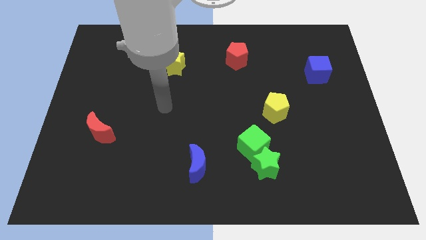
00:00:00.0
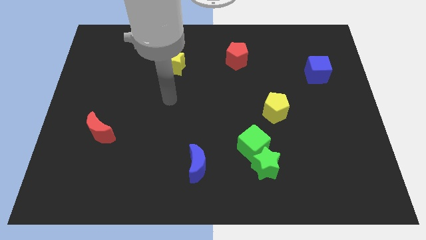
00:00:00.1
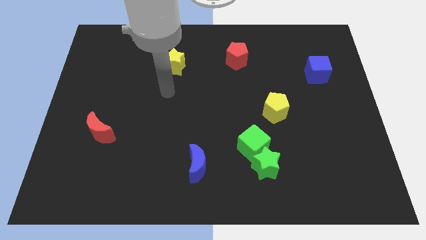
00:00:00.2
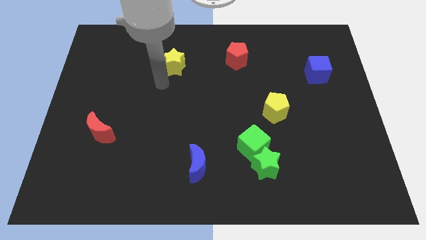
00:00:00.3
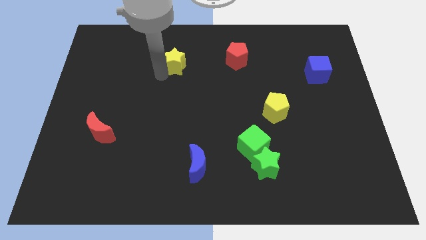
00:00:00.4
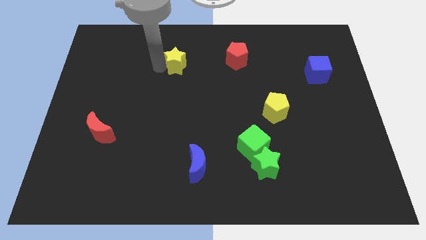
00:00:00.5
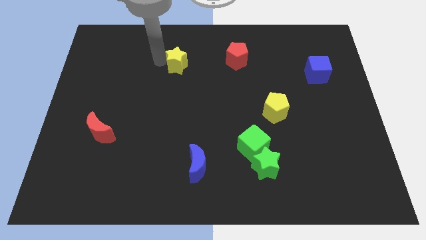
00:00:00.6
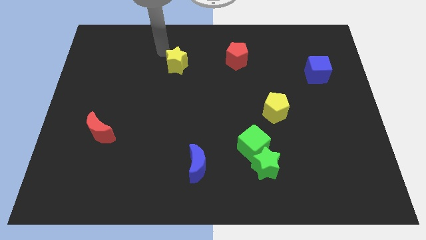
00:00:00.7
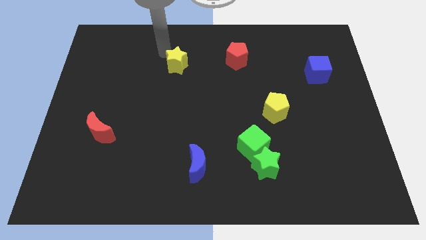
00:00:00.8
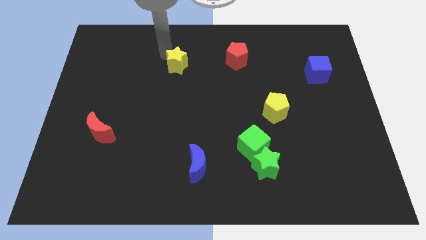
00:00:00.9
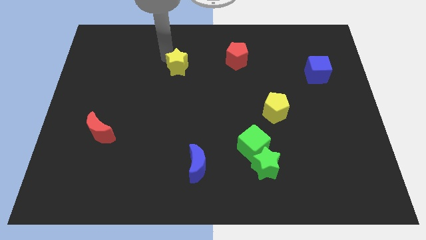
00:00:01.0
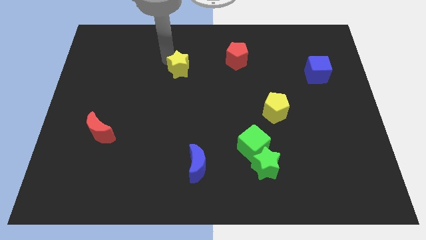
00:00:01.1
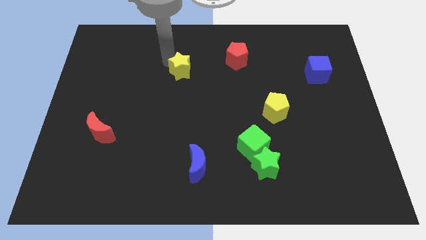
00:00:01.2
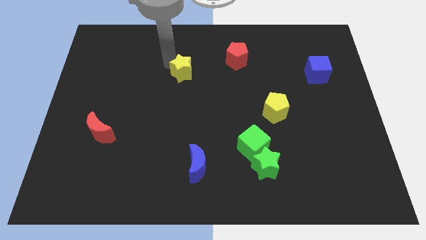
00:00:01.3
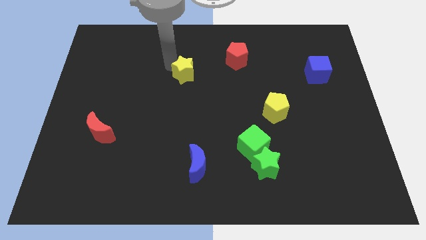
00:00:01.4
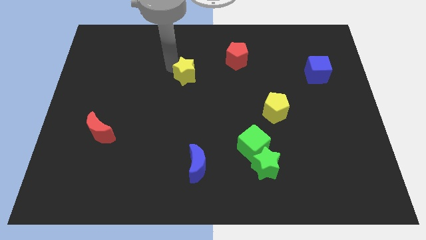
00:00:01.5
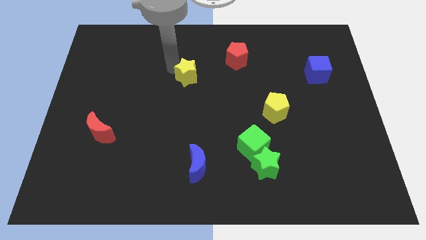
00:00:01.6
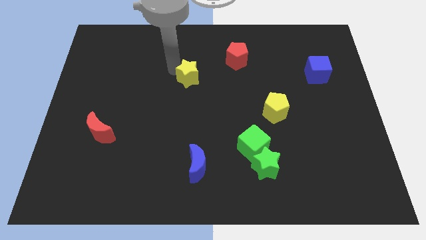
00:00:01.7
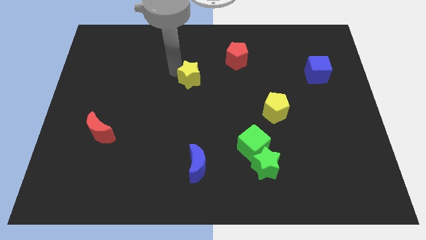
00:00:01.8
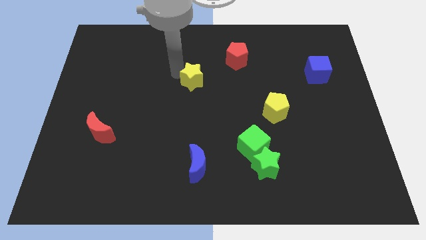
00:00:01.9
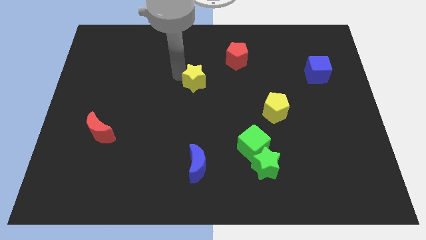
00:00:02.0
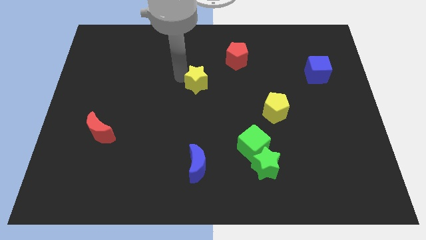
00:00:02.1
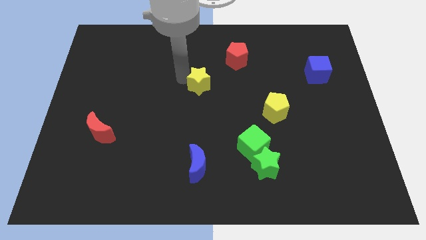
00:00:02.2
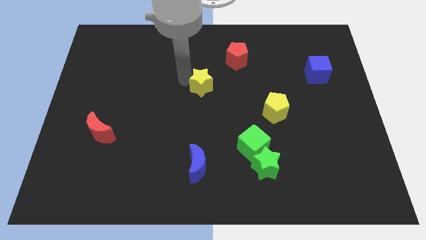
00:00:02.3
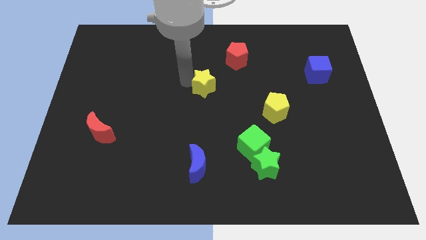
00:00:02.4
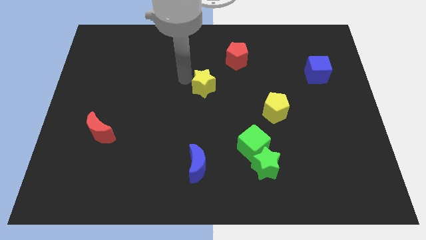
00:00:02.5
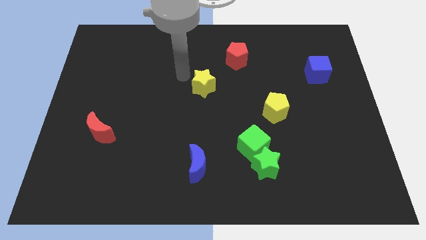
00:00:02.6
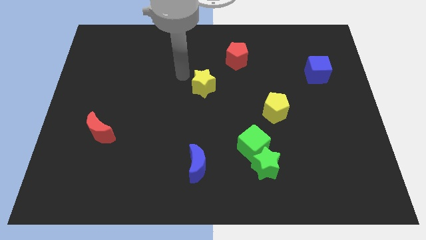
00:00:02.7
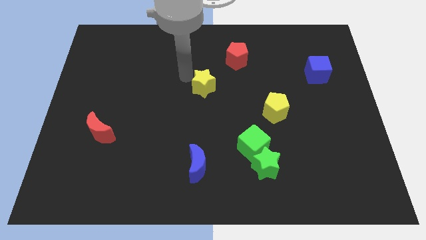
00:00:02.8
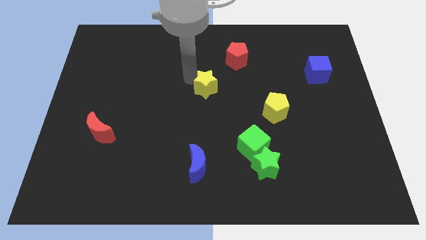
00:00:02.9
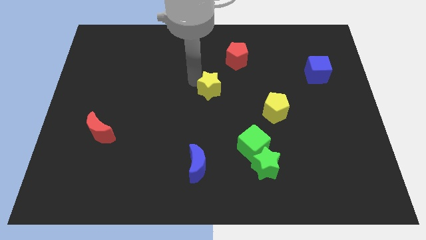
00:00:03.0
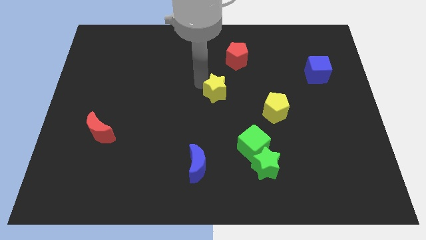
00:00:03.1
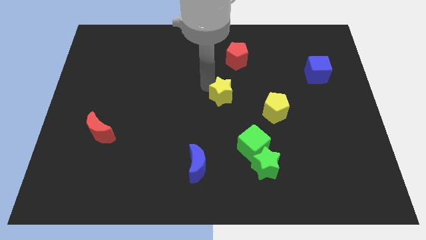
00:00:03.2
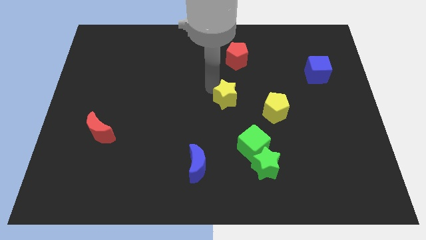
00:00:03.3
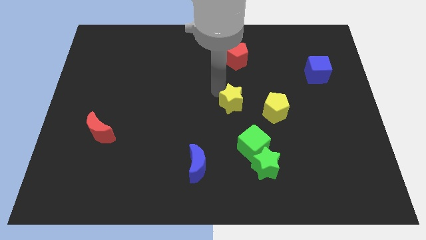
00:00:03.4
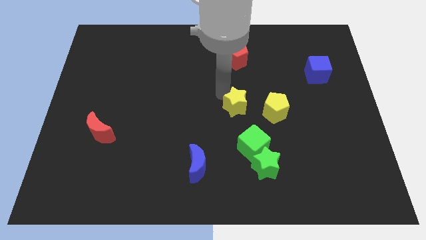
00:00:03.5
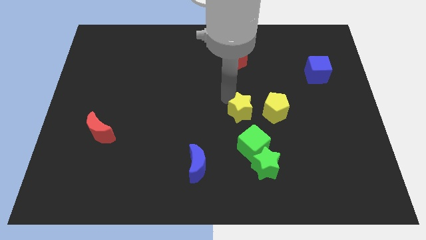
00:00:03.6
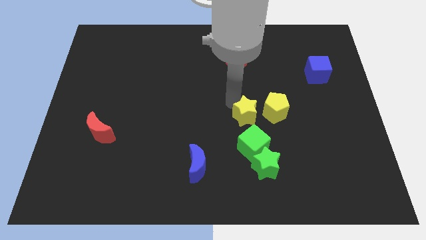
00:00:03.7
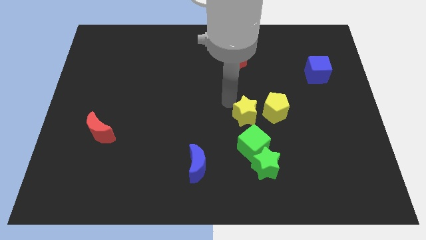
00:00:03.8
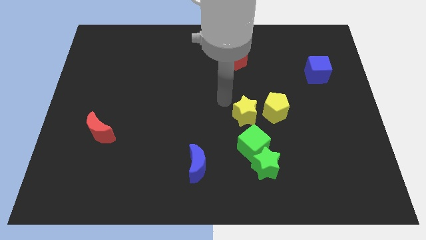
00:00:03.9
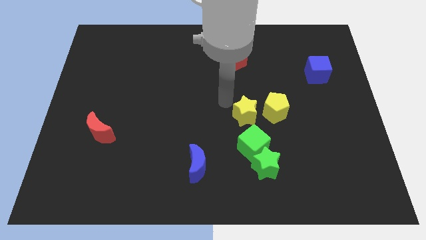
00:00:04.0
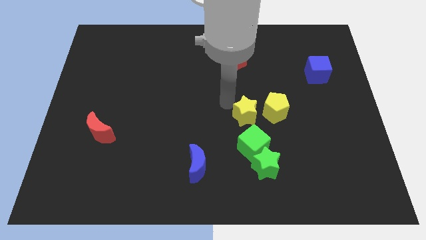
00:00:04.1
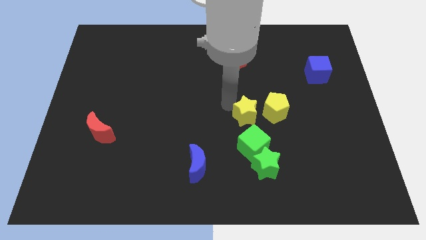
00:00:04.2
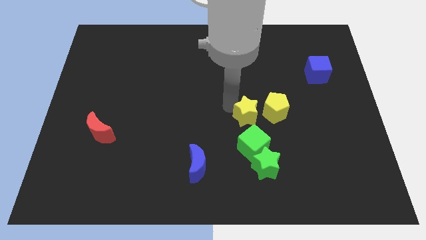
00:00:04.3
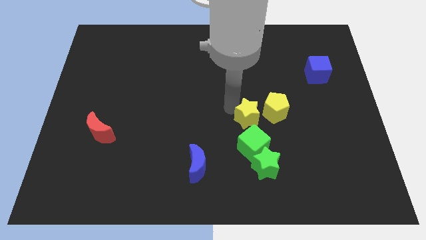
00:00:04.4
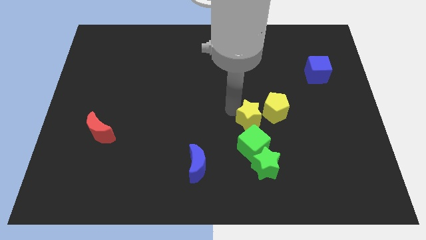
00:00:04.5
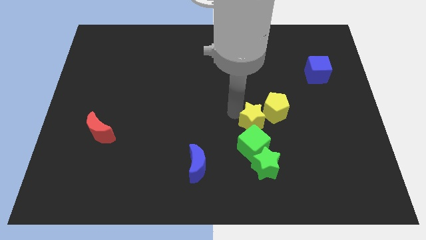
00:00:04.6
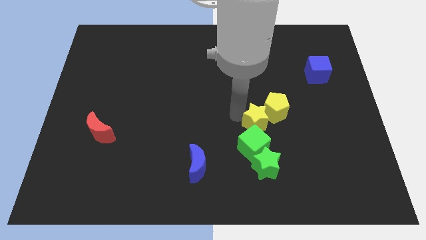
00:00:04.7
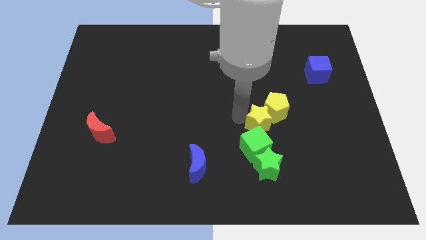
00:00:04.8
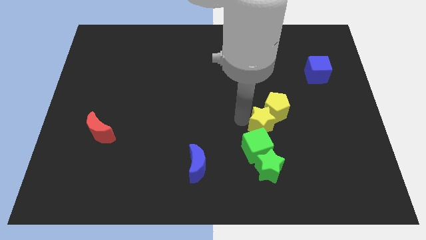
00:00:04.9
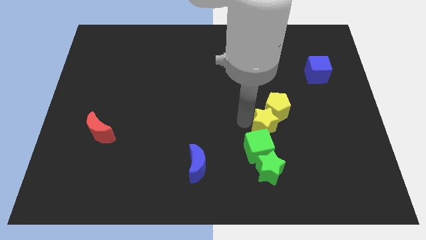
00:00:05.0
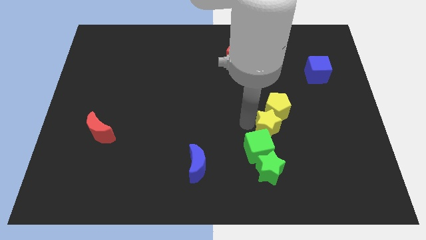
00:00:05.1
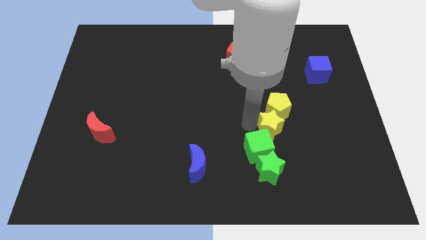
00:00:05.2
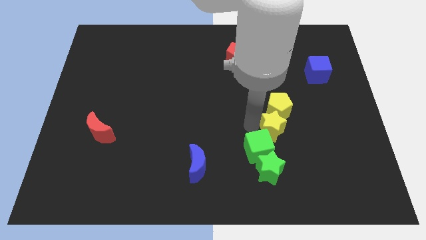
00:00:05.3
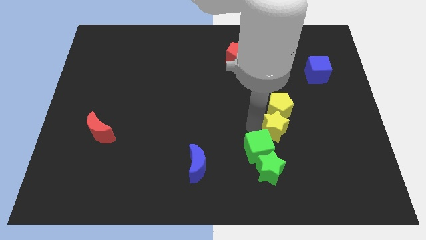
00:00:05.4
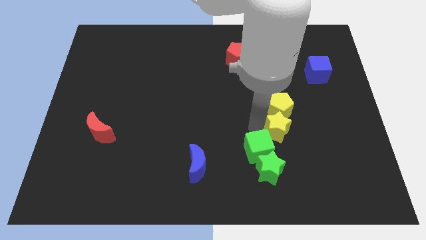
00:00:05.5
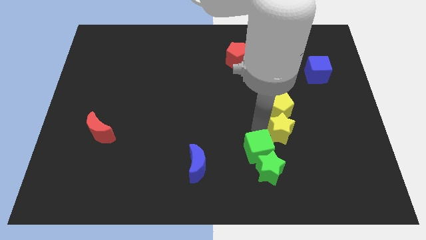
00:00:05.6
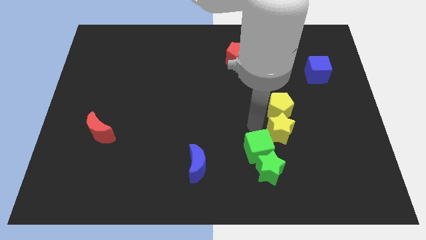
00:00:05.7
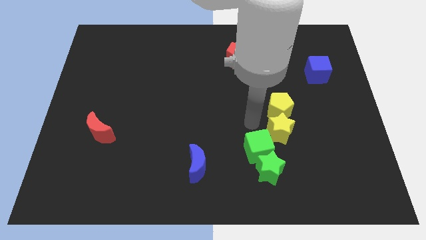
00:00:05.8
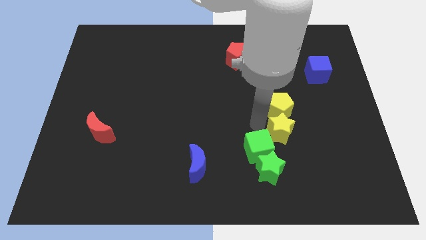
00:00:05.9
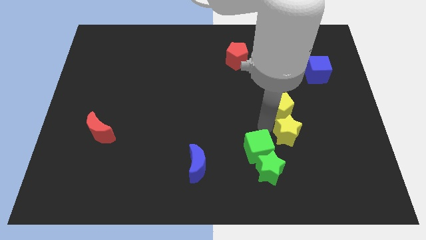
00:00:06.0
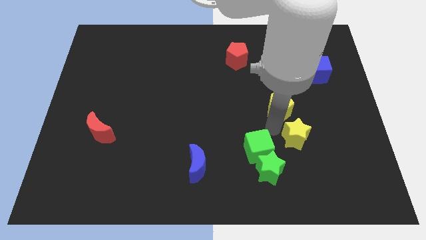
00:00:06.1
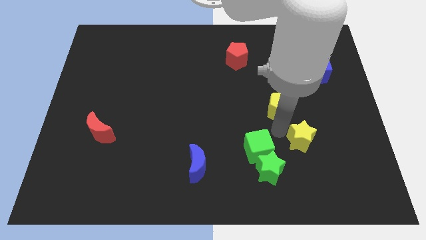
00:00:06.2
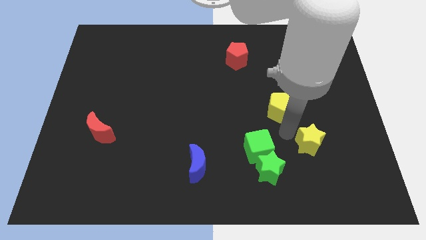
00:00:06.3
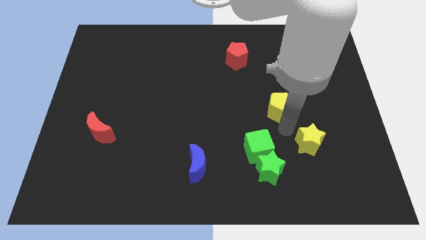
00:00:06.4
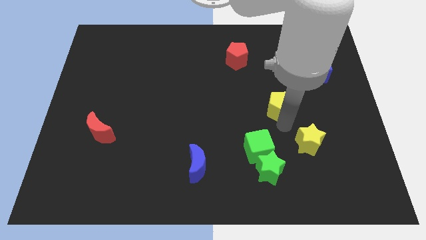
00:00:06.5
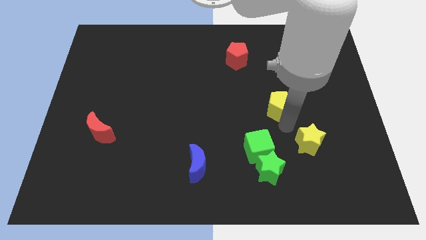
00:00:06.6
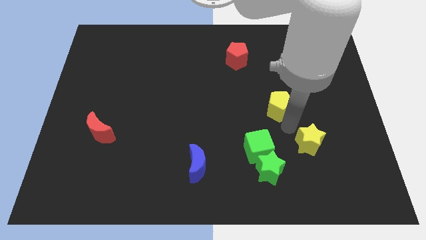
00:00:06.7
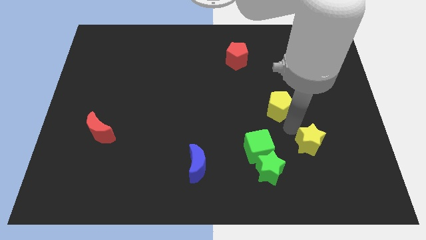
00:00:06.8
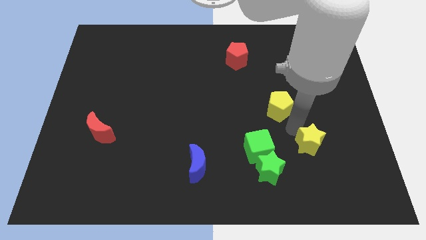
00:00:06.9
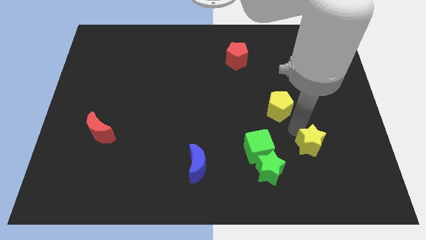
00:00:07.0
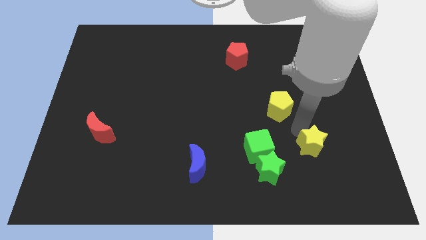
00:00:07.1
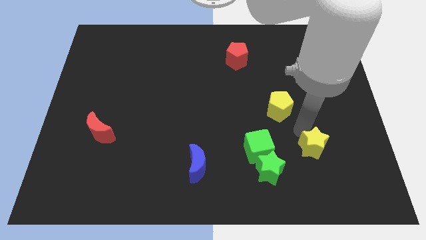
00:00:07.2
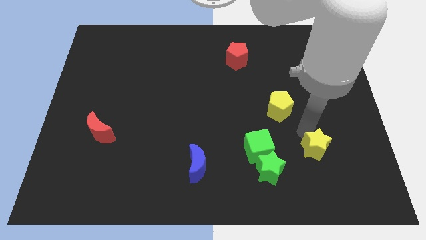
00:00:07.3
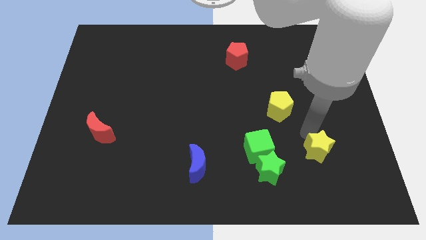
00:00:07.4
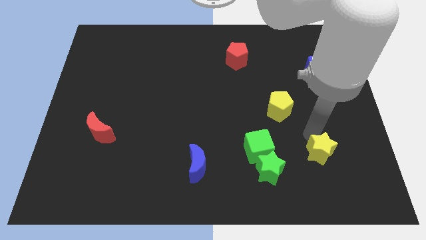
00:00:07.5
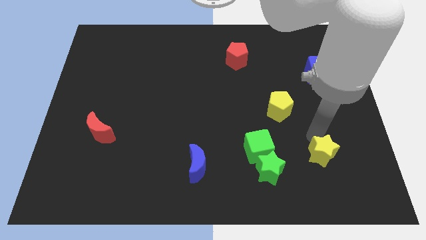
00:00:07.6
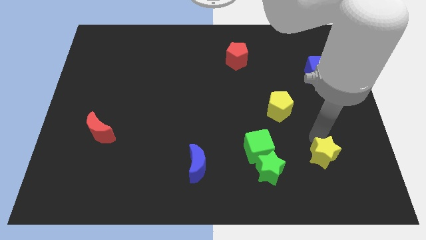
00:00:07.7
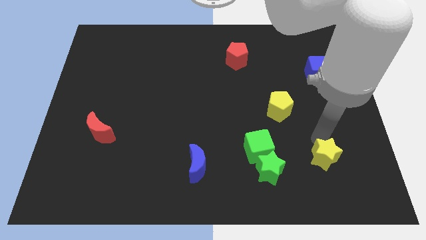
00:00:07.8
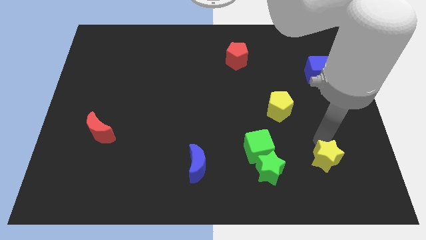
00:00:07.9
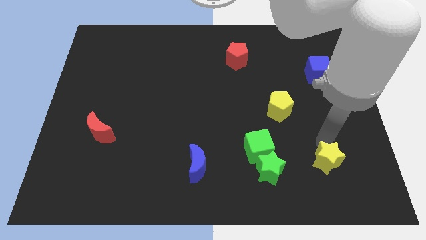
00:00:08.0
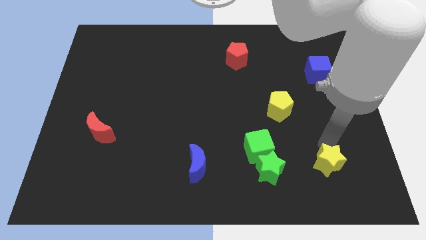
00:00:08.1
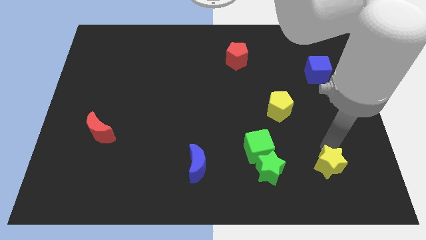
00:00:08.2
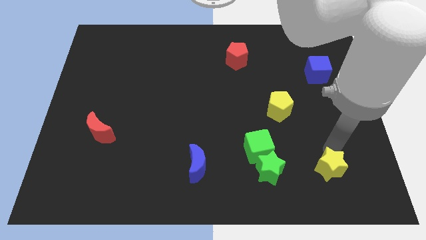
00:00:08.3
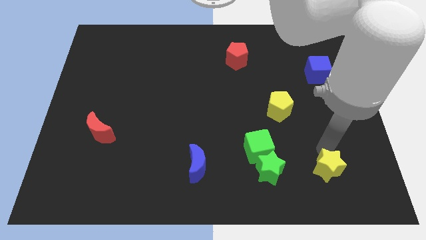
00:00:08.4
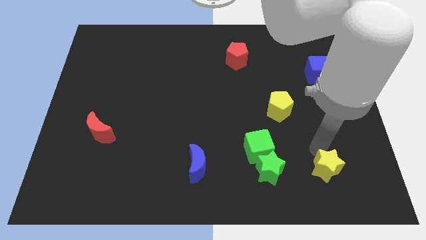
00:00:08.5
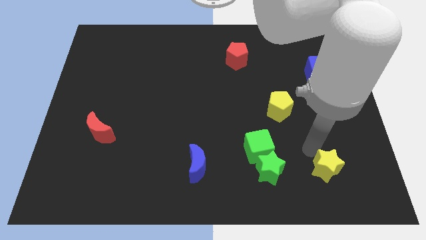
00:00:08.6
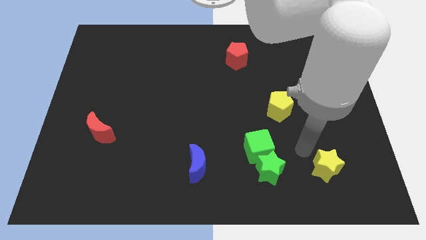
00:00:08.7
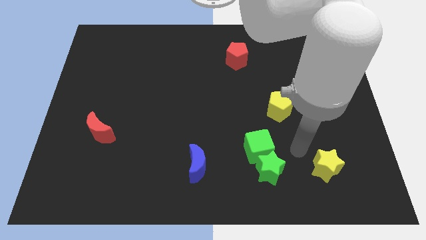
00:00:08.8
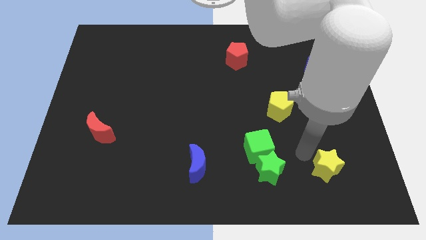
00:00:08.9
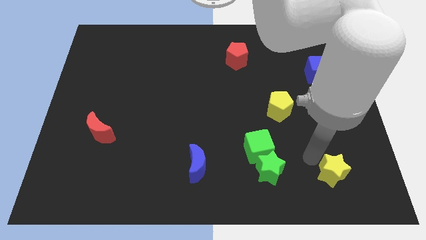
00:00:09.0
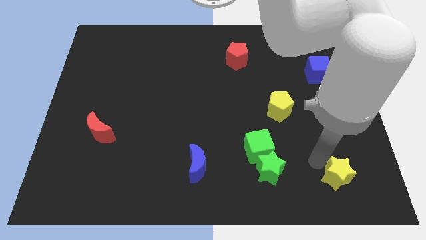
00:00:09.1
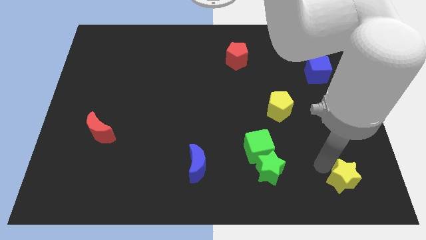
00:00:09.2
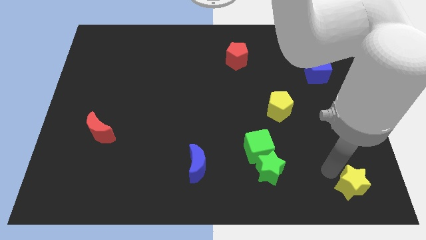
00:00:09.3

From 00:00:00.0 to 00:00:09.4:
slide the yellow star to the bottom right of the board
